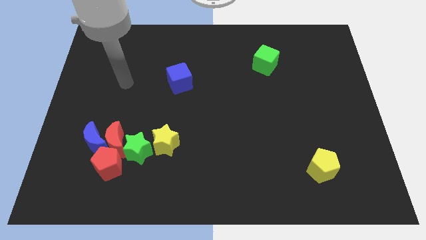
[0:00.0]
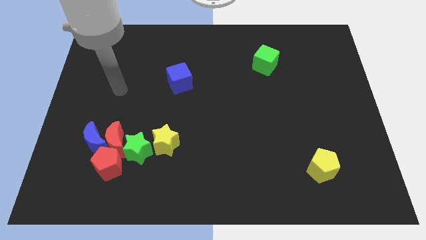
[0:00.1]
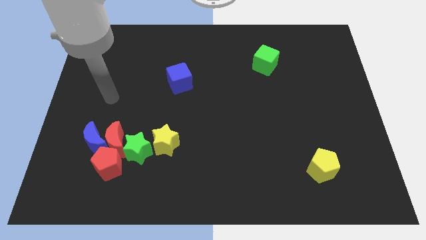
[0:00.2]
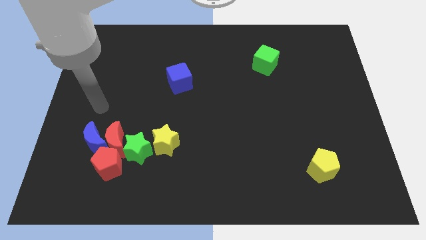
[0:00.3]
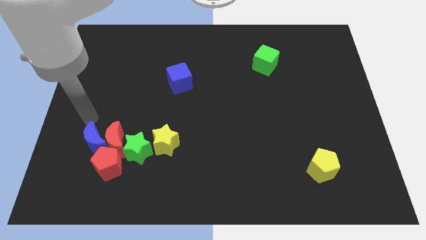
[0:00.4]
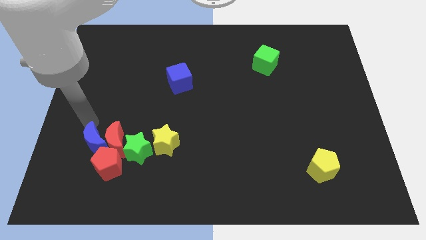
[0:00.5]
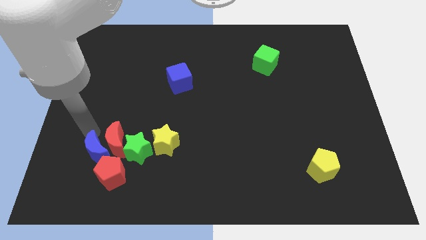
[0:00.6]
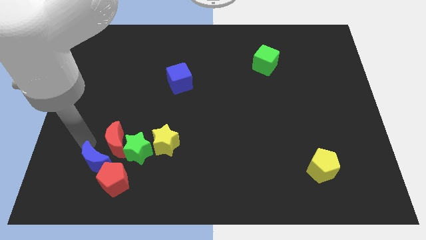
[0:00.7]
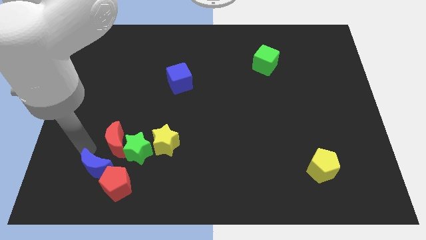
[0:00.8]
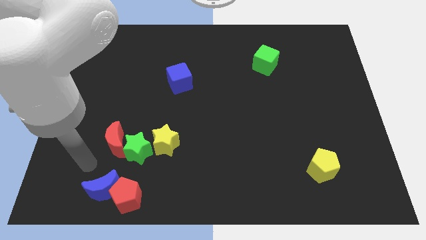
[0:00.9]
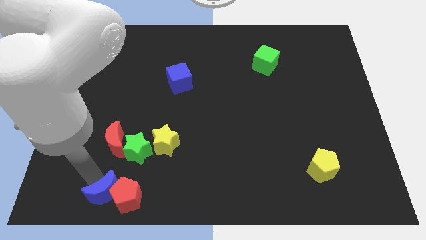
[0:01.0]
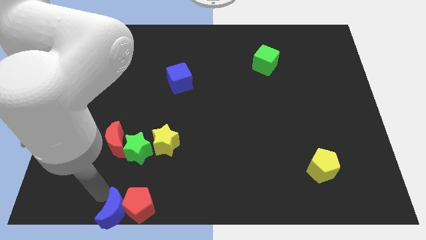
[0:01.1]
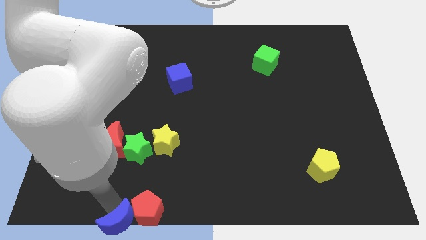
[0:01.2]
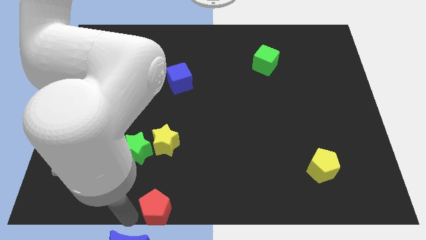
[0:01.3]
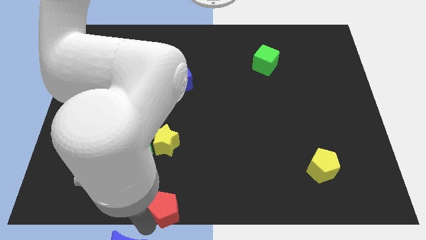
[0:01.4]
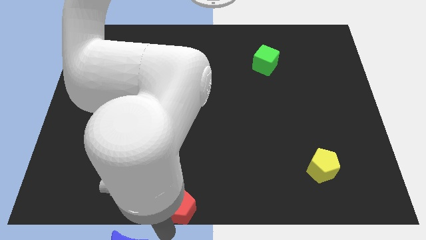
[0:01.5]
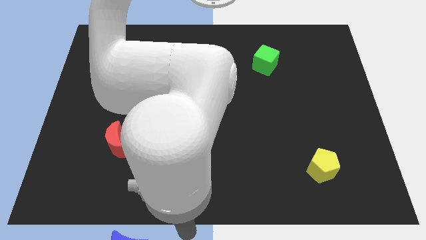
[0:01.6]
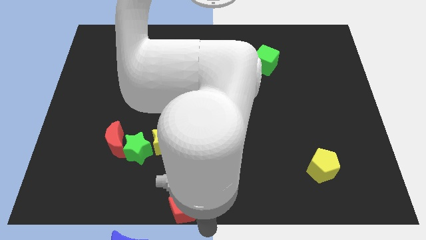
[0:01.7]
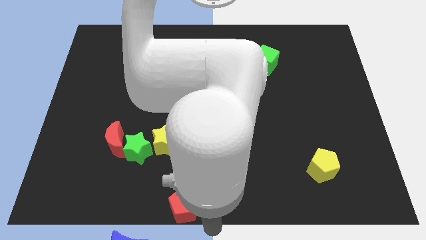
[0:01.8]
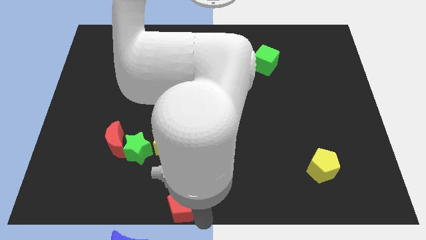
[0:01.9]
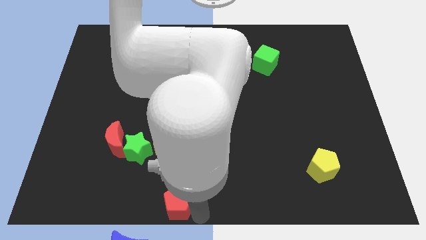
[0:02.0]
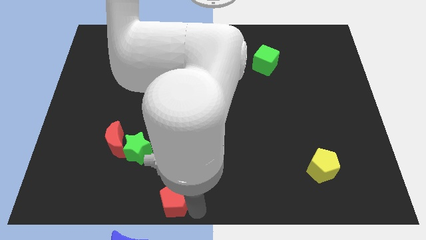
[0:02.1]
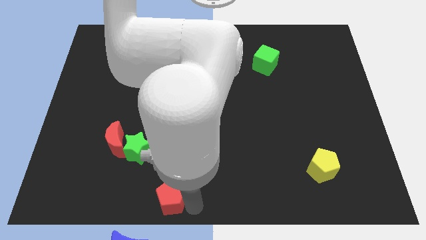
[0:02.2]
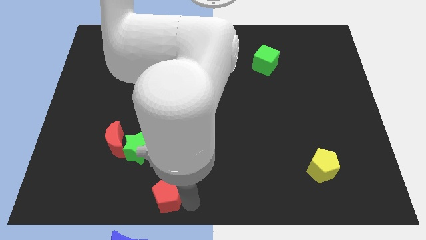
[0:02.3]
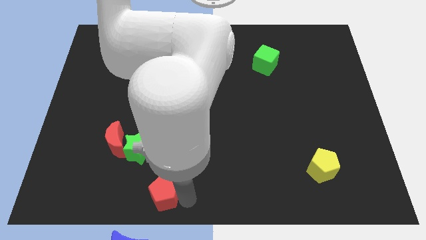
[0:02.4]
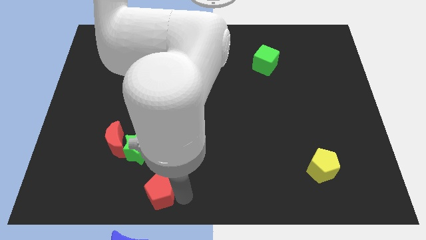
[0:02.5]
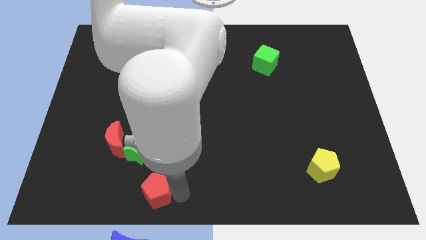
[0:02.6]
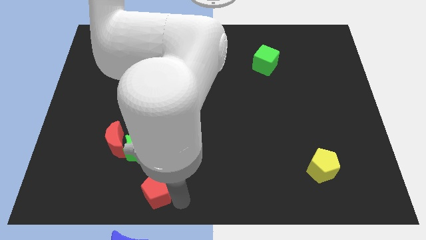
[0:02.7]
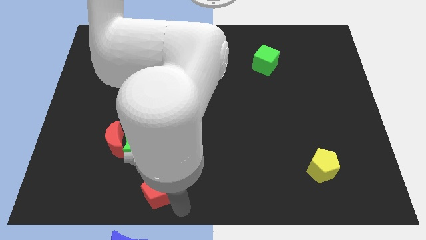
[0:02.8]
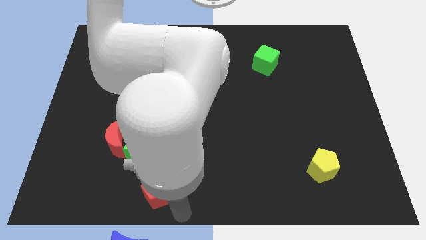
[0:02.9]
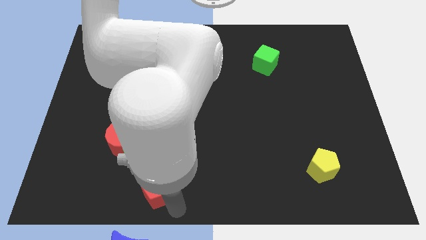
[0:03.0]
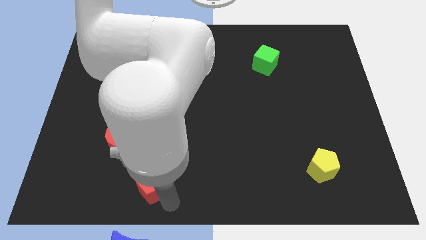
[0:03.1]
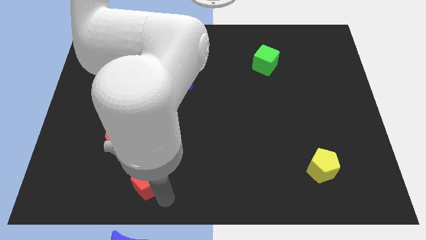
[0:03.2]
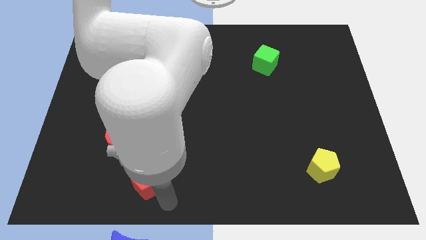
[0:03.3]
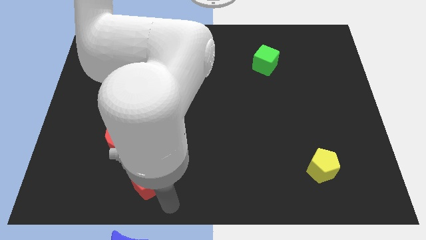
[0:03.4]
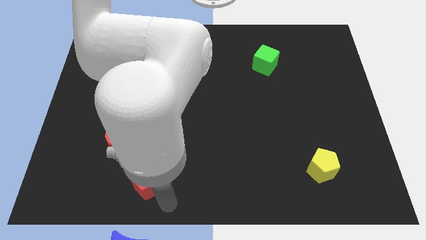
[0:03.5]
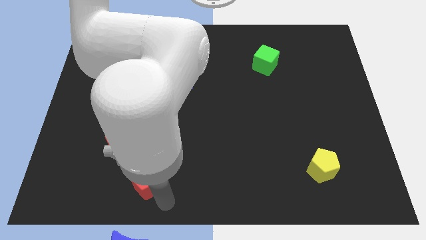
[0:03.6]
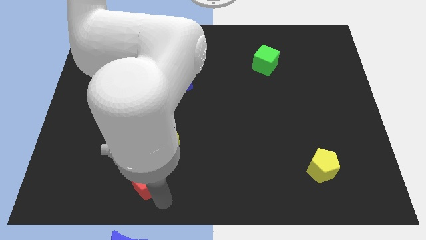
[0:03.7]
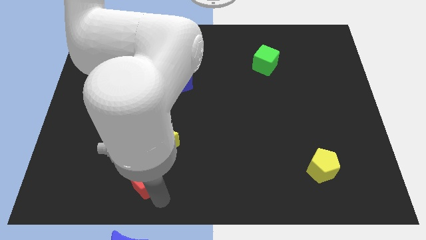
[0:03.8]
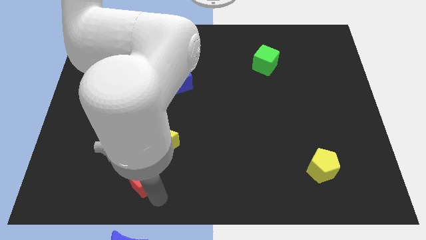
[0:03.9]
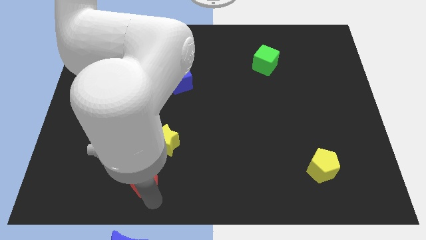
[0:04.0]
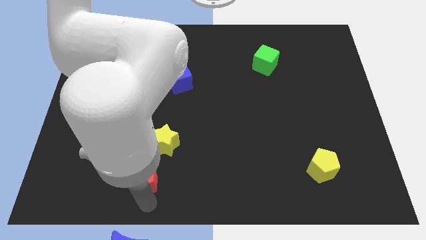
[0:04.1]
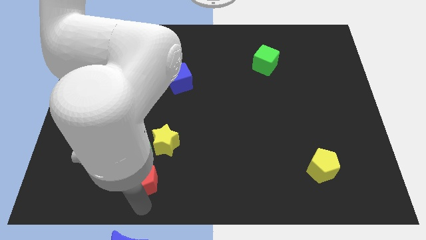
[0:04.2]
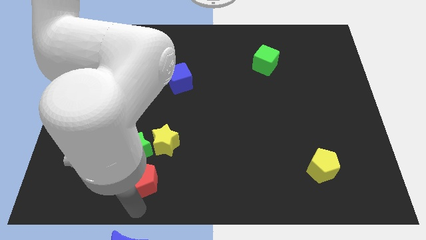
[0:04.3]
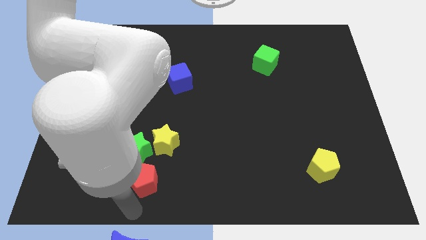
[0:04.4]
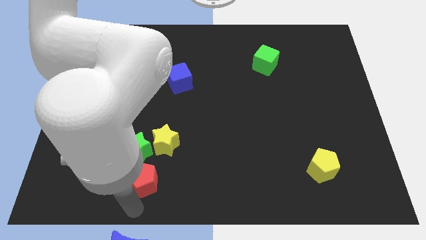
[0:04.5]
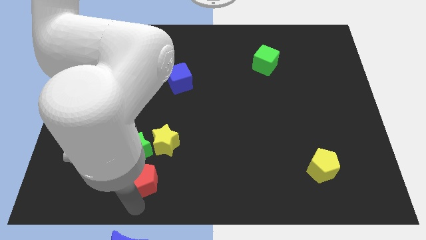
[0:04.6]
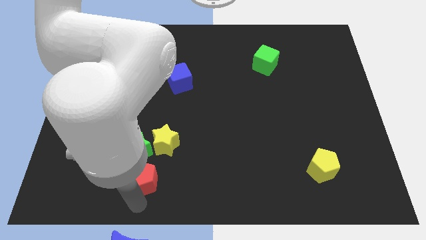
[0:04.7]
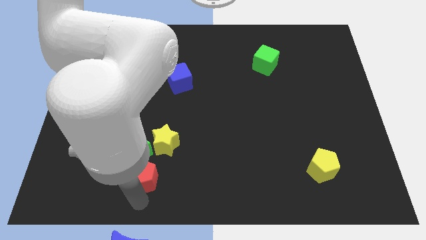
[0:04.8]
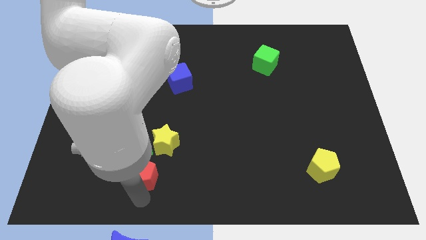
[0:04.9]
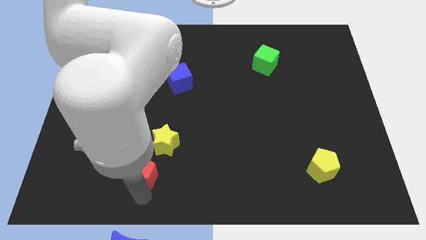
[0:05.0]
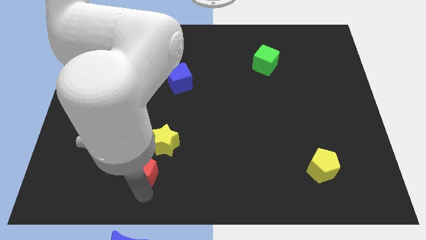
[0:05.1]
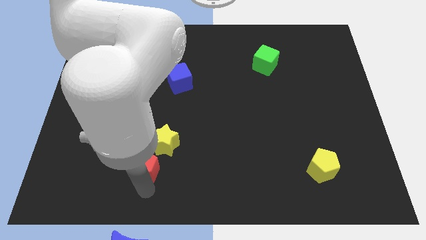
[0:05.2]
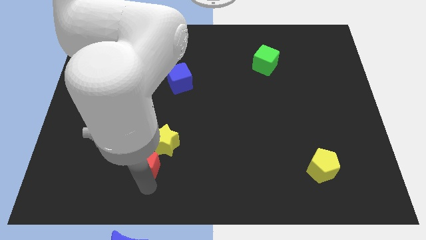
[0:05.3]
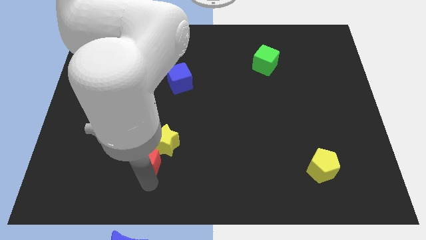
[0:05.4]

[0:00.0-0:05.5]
slide the red pentagon next to the yellow star

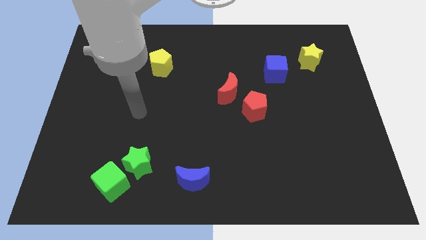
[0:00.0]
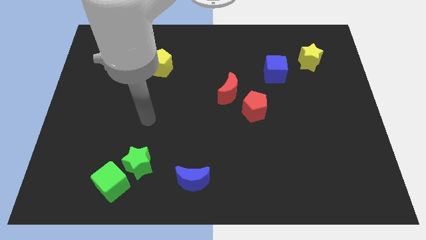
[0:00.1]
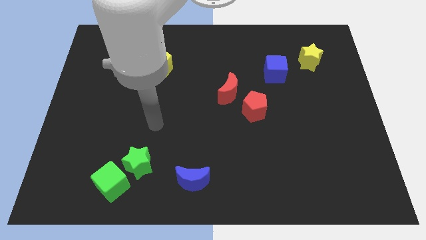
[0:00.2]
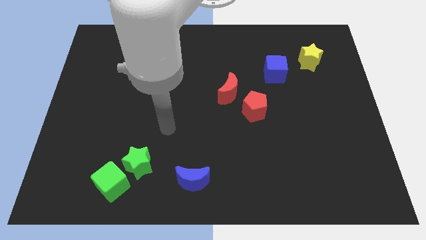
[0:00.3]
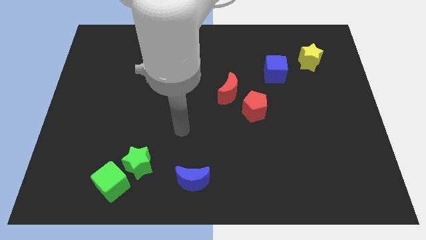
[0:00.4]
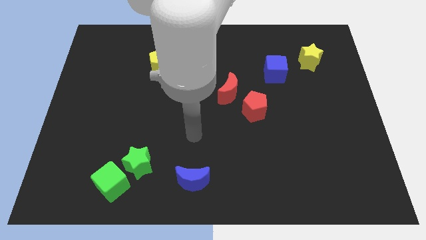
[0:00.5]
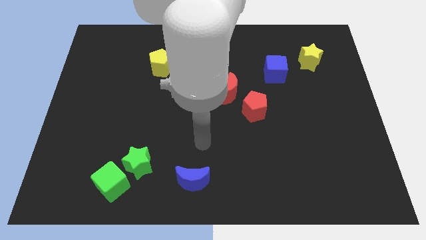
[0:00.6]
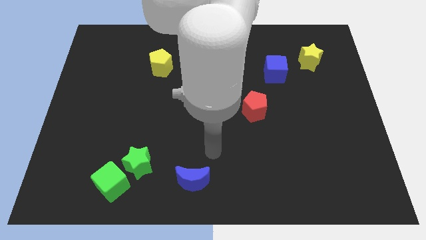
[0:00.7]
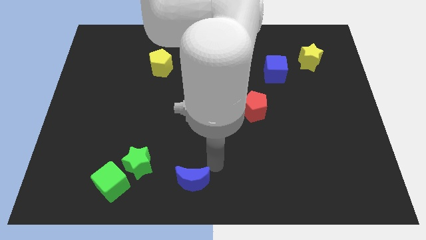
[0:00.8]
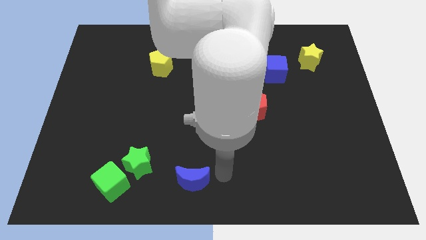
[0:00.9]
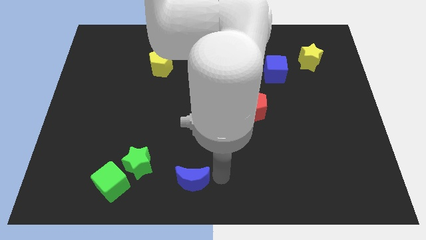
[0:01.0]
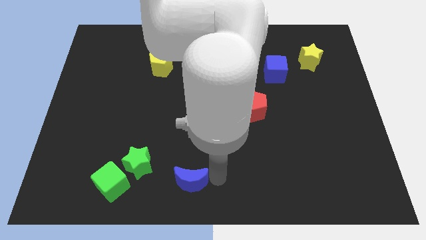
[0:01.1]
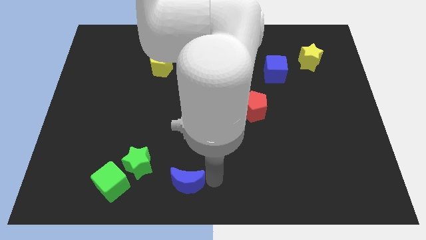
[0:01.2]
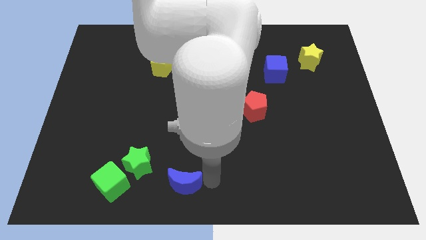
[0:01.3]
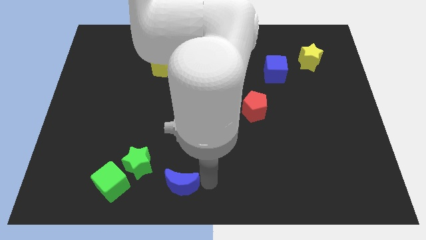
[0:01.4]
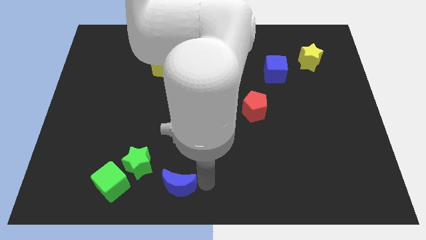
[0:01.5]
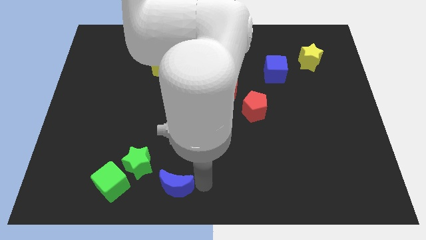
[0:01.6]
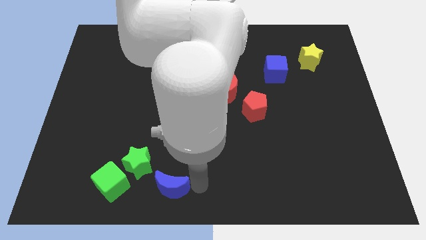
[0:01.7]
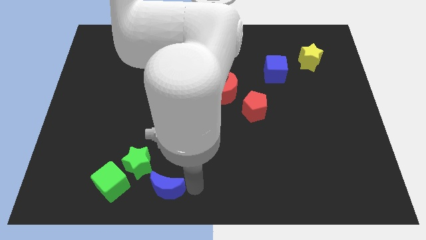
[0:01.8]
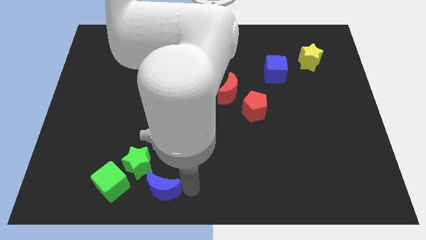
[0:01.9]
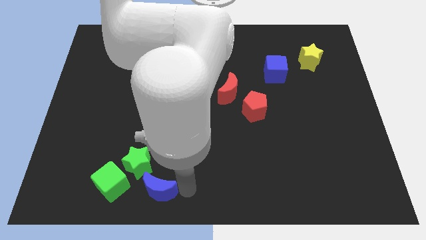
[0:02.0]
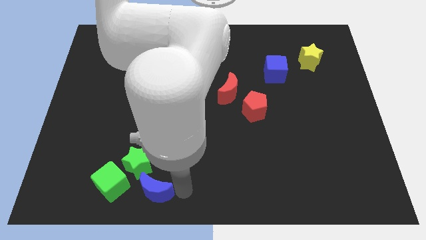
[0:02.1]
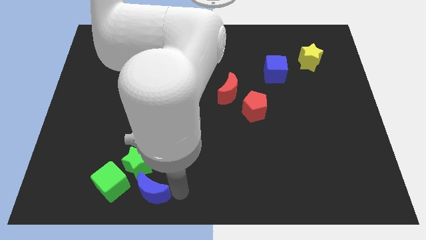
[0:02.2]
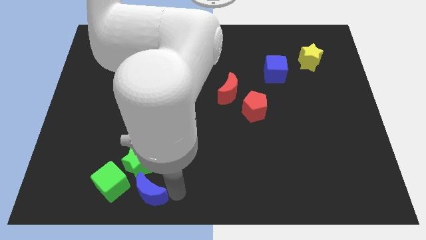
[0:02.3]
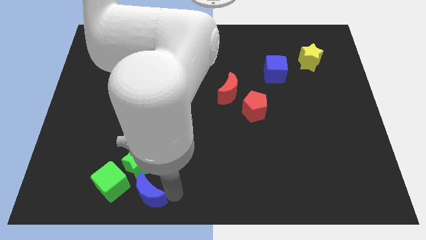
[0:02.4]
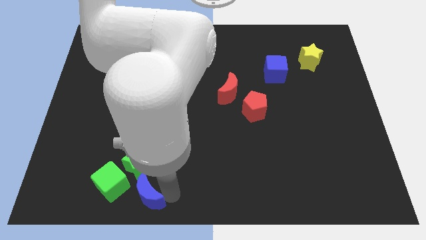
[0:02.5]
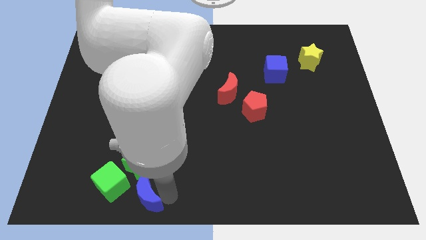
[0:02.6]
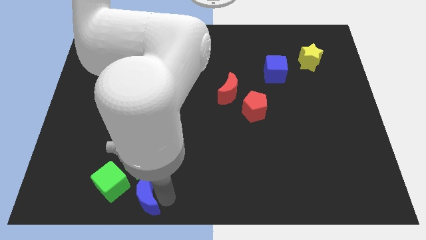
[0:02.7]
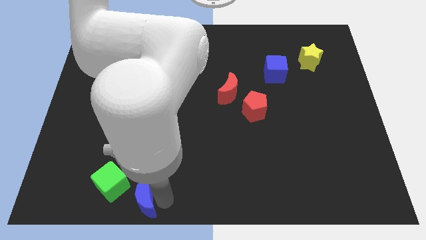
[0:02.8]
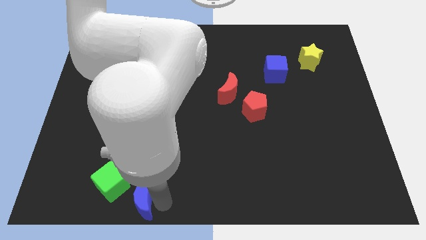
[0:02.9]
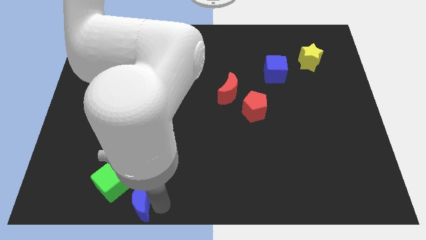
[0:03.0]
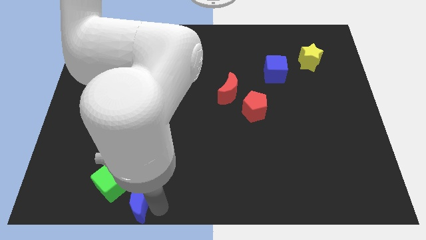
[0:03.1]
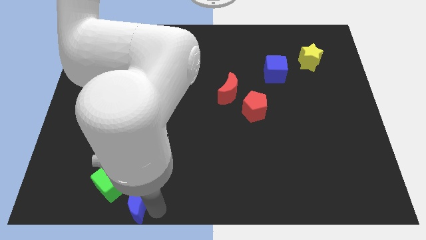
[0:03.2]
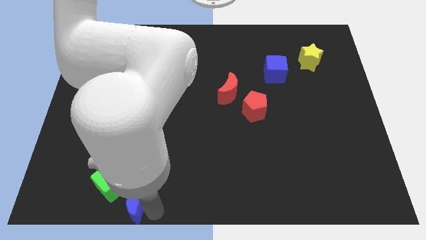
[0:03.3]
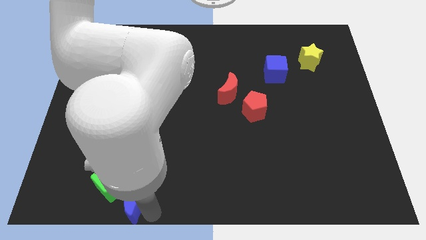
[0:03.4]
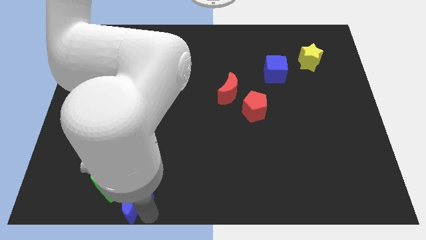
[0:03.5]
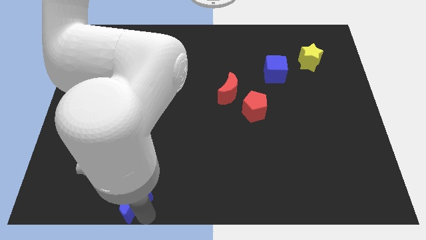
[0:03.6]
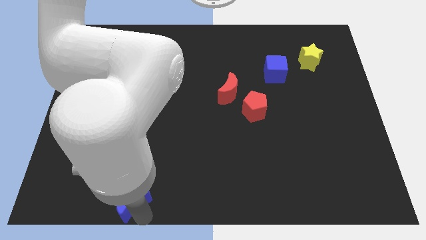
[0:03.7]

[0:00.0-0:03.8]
slide the blue moon towards the green cube
